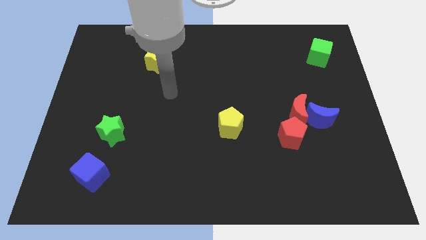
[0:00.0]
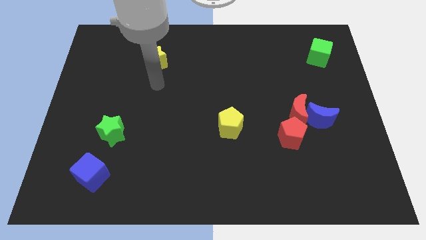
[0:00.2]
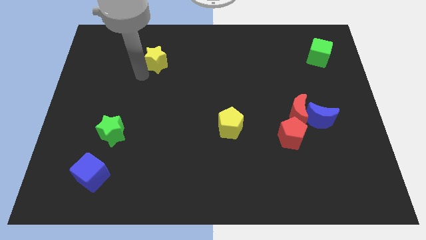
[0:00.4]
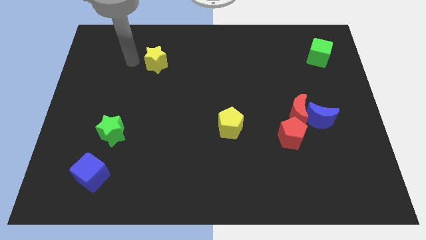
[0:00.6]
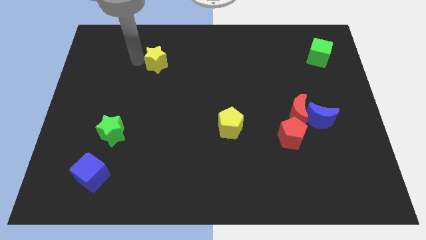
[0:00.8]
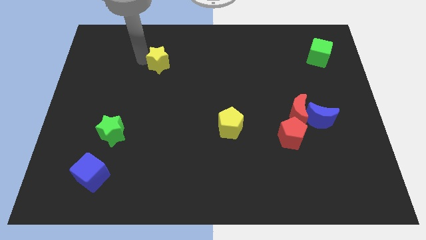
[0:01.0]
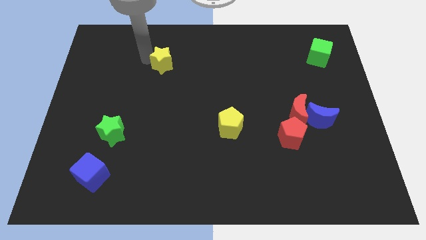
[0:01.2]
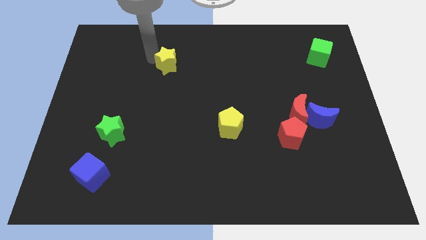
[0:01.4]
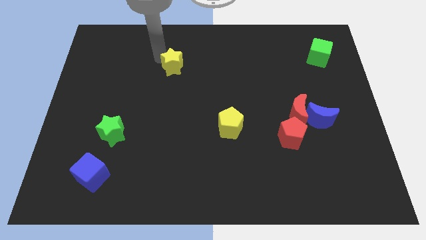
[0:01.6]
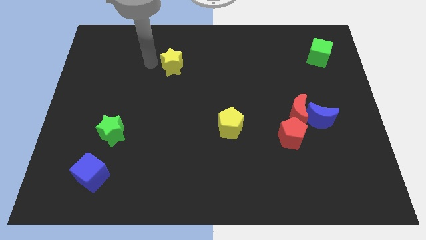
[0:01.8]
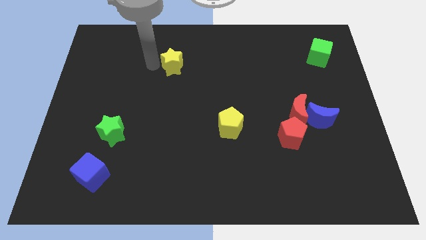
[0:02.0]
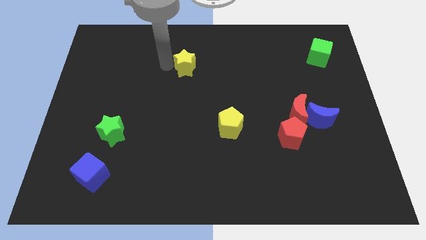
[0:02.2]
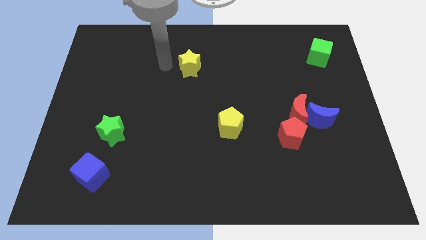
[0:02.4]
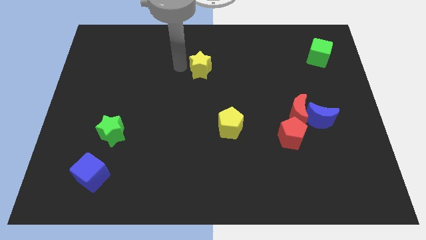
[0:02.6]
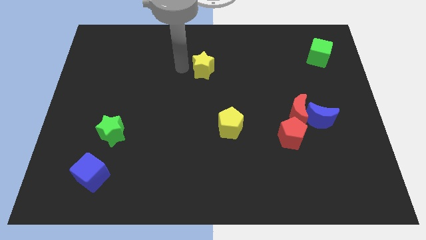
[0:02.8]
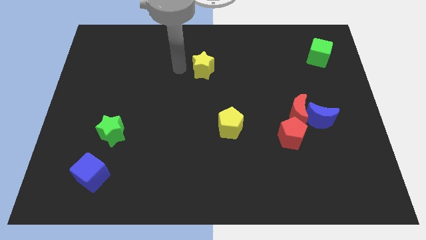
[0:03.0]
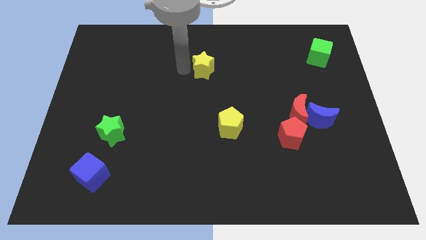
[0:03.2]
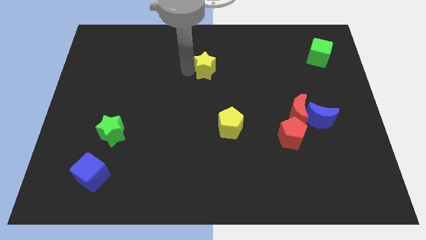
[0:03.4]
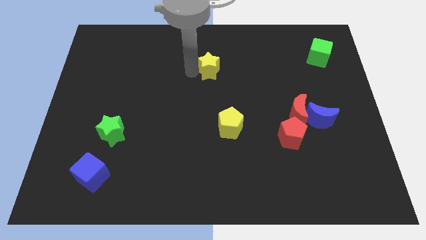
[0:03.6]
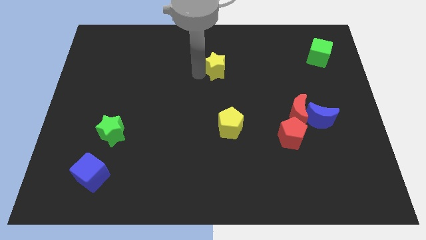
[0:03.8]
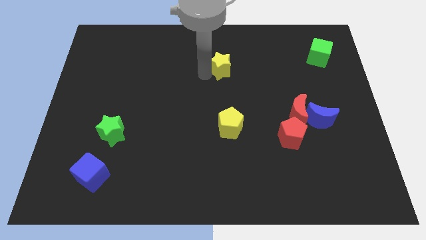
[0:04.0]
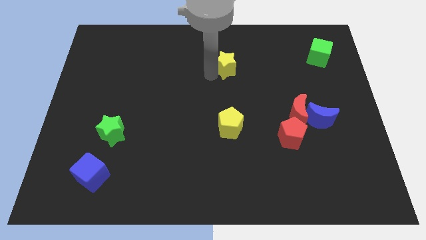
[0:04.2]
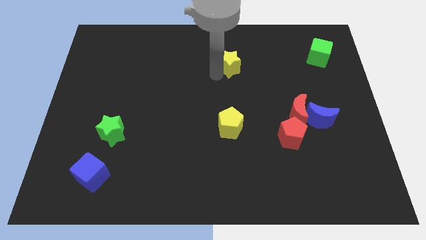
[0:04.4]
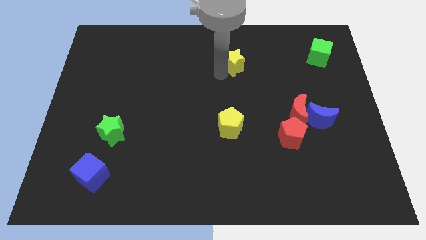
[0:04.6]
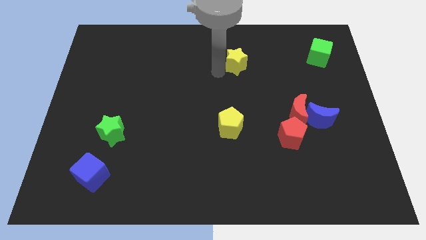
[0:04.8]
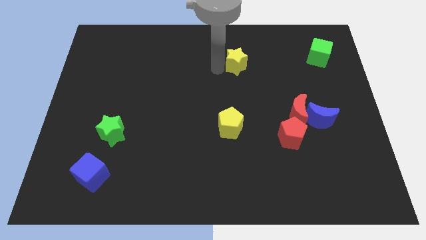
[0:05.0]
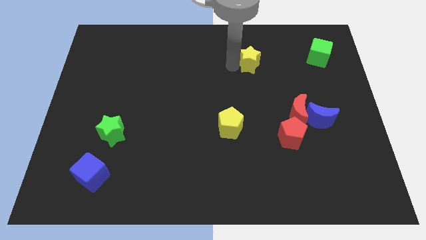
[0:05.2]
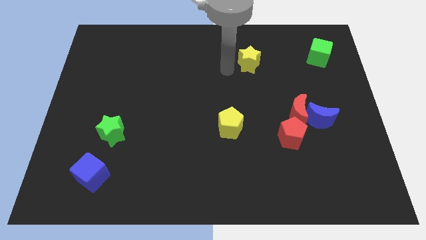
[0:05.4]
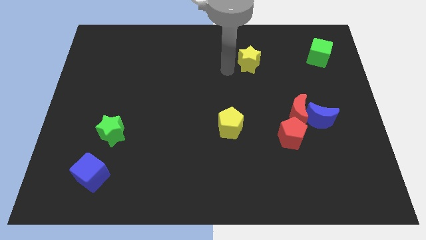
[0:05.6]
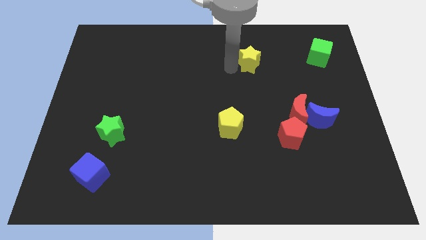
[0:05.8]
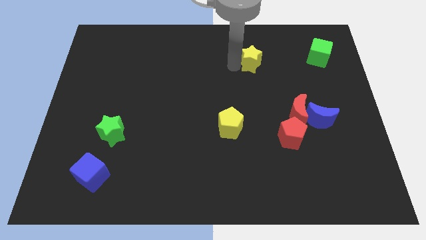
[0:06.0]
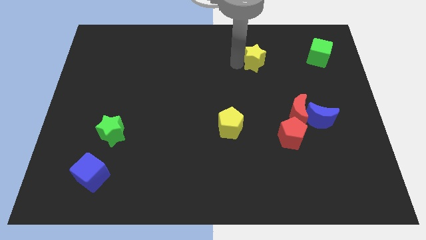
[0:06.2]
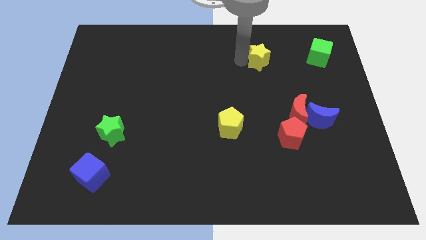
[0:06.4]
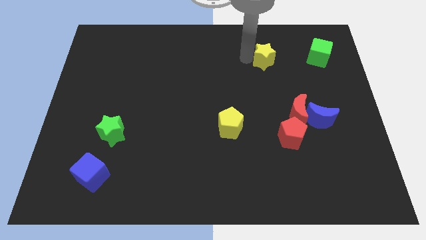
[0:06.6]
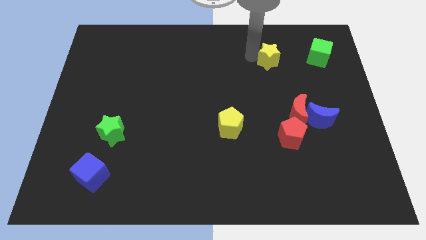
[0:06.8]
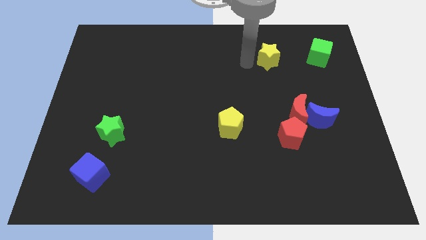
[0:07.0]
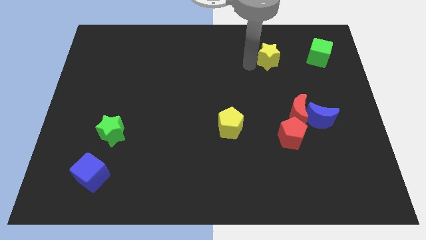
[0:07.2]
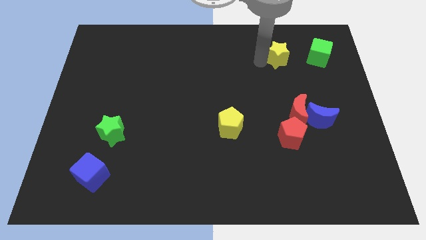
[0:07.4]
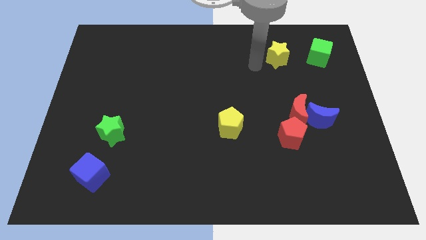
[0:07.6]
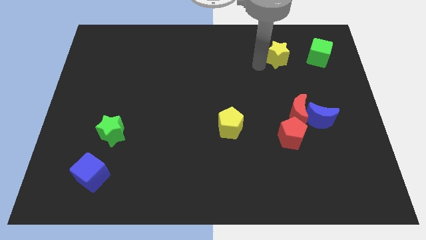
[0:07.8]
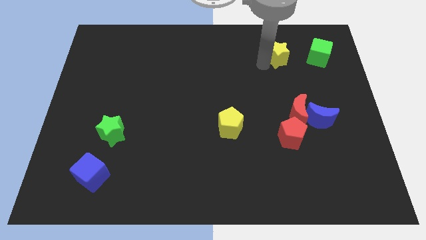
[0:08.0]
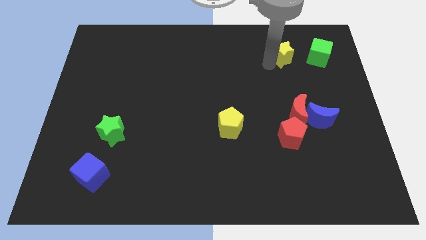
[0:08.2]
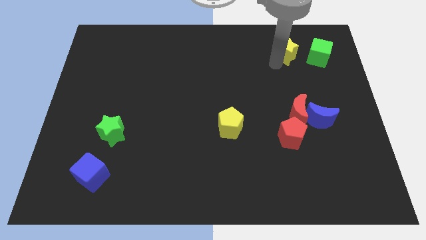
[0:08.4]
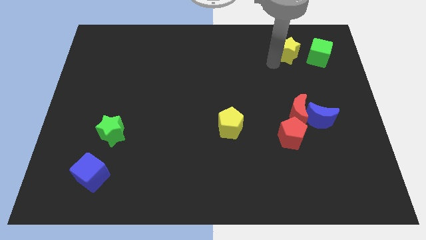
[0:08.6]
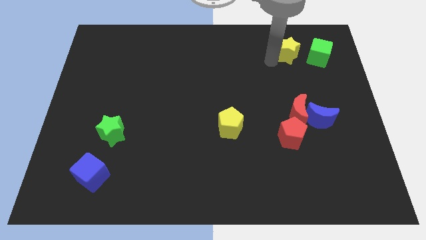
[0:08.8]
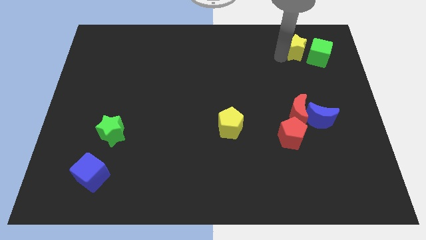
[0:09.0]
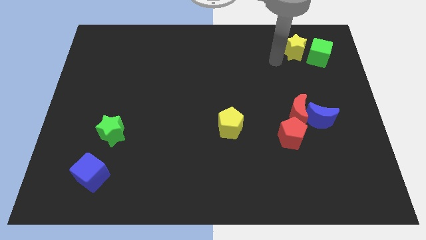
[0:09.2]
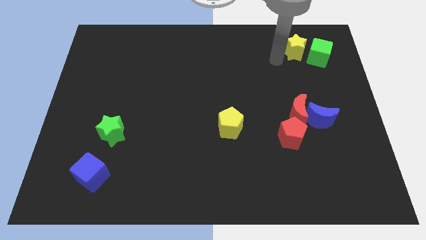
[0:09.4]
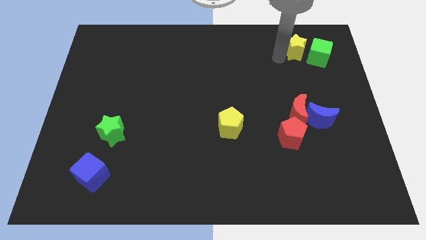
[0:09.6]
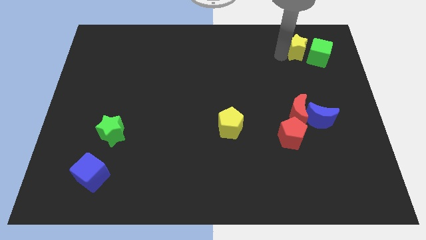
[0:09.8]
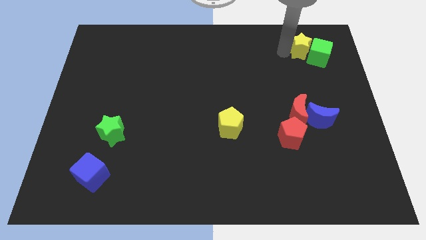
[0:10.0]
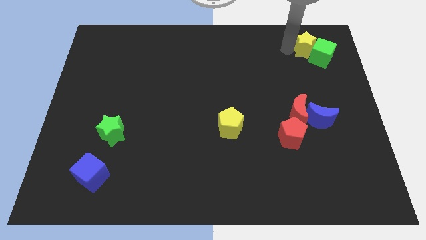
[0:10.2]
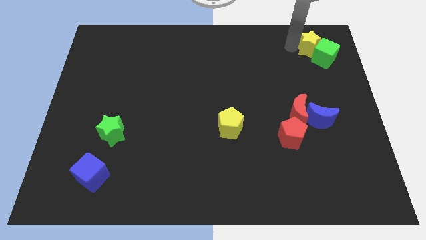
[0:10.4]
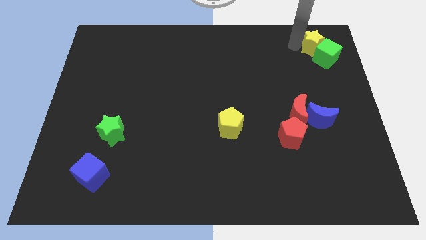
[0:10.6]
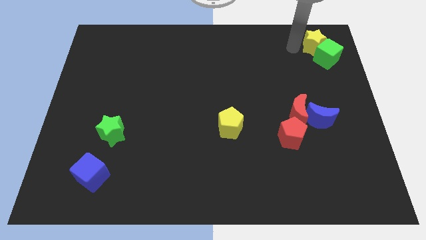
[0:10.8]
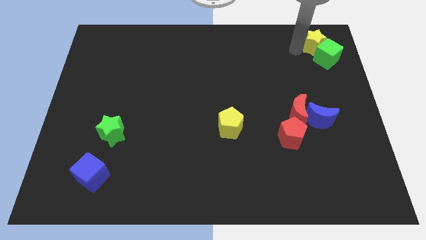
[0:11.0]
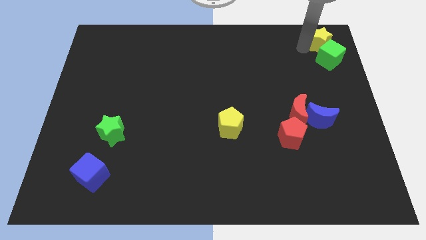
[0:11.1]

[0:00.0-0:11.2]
move the yellow star to the upper right corner

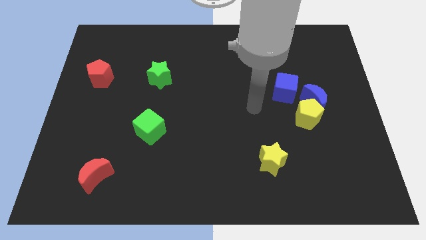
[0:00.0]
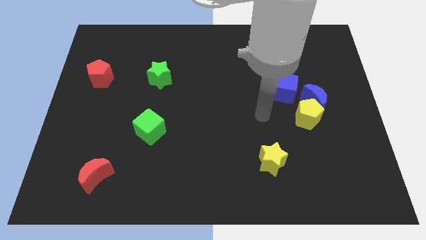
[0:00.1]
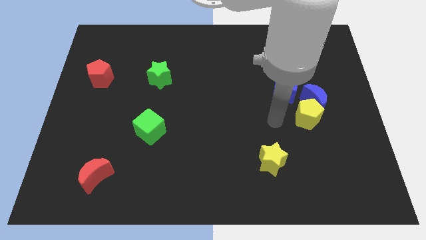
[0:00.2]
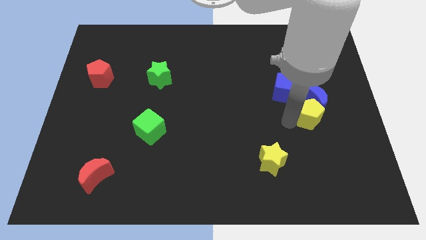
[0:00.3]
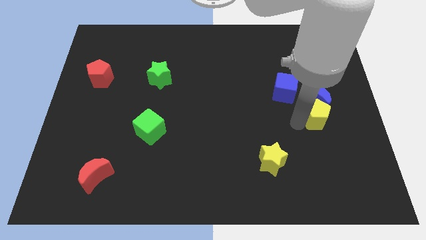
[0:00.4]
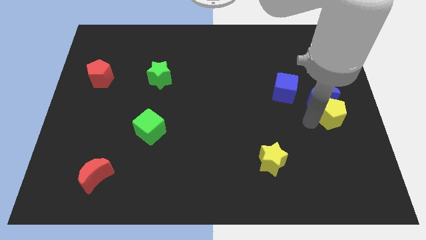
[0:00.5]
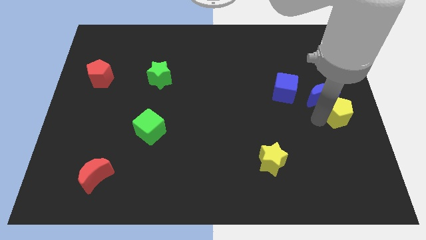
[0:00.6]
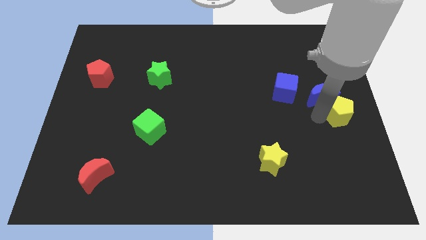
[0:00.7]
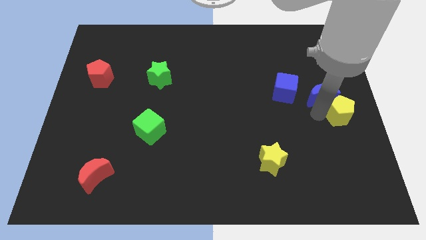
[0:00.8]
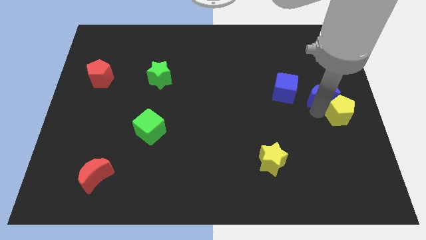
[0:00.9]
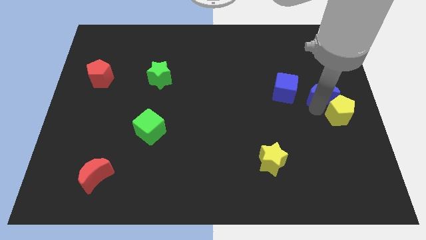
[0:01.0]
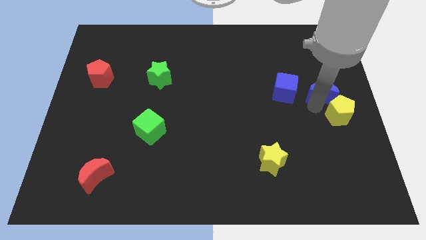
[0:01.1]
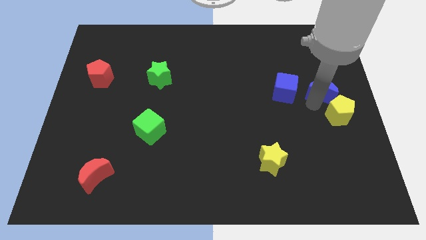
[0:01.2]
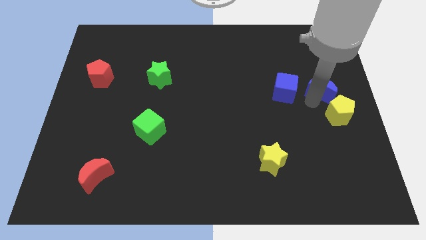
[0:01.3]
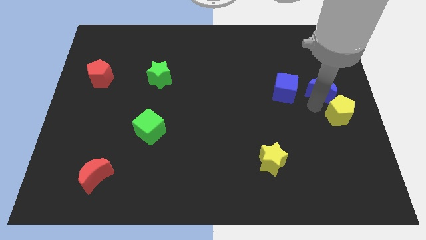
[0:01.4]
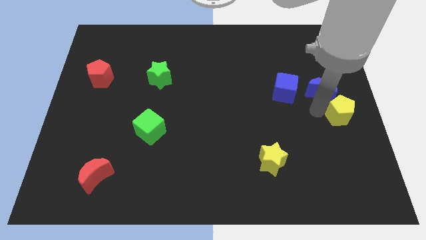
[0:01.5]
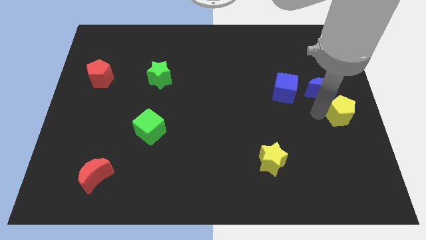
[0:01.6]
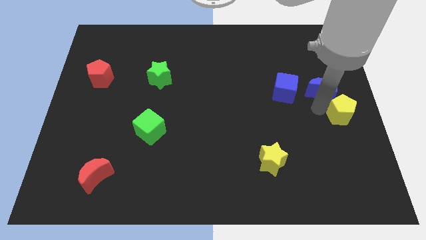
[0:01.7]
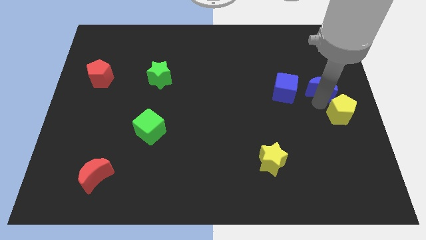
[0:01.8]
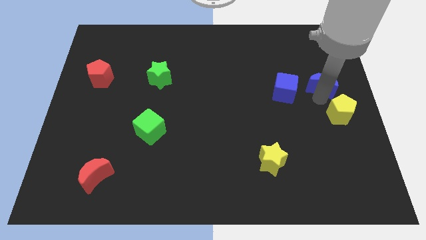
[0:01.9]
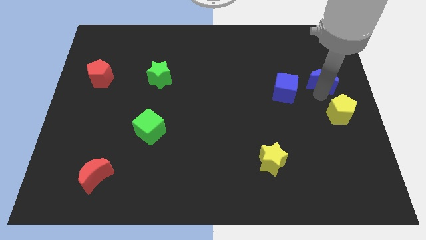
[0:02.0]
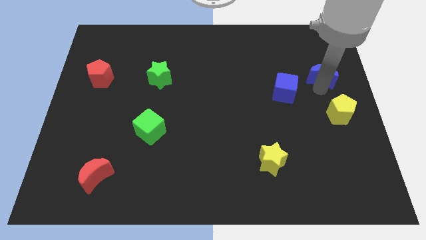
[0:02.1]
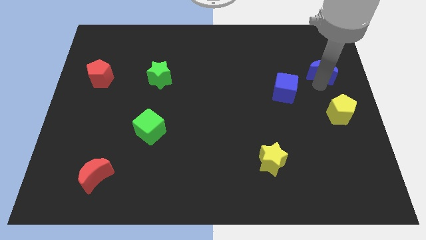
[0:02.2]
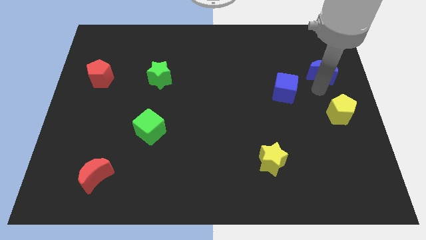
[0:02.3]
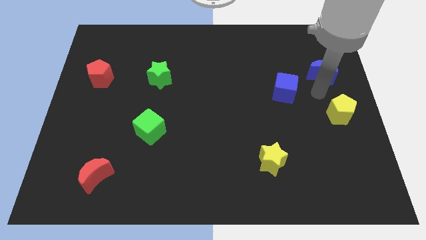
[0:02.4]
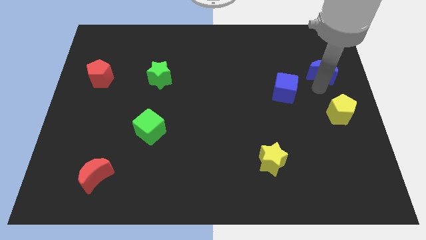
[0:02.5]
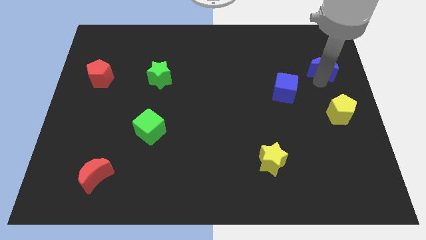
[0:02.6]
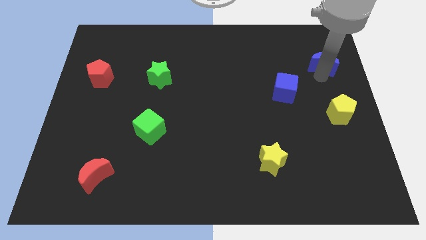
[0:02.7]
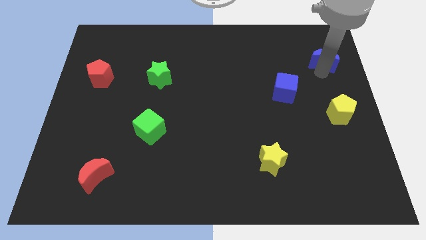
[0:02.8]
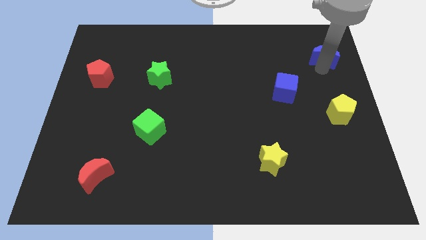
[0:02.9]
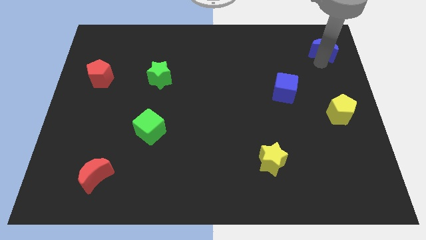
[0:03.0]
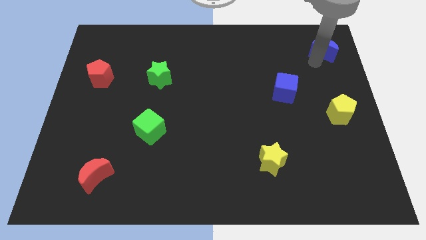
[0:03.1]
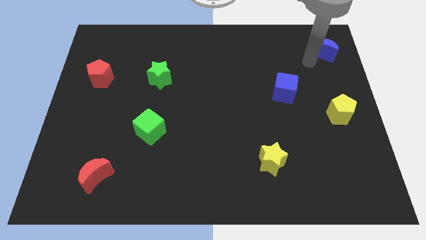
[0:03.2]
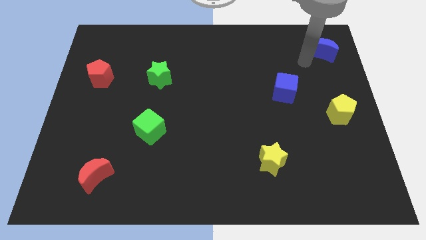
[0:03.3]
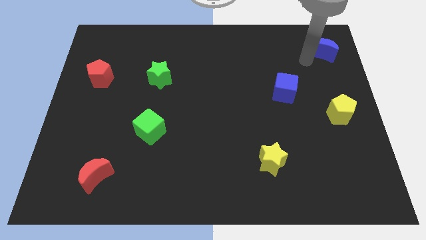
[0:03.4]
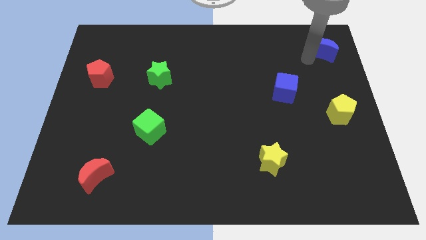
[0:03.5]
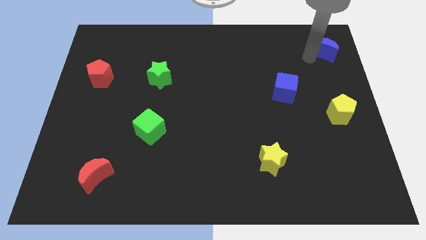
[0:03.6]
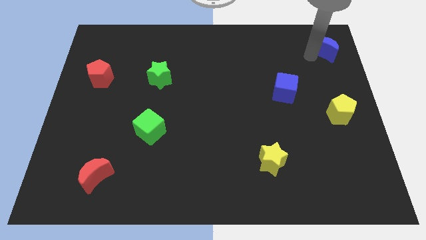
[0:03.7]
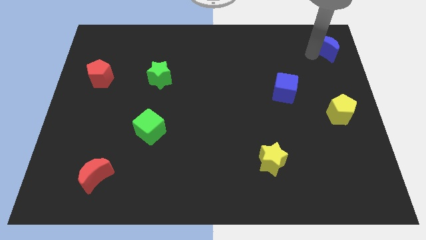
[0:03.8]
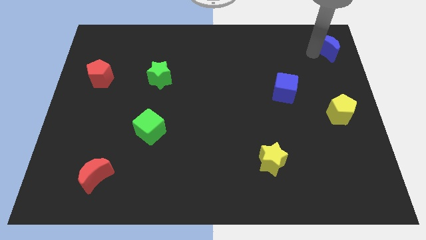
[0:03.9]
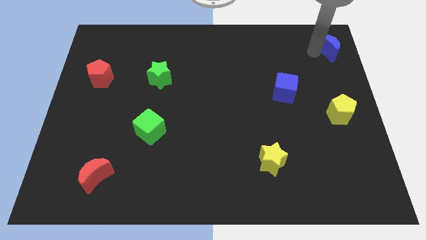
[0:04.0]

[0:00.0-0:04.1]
move the blue moon to the top right corner
